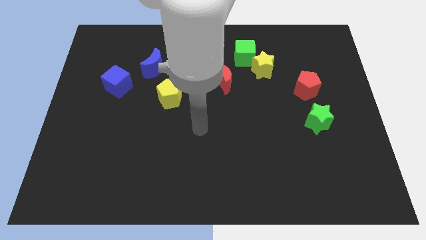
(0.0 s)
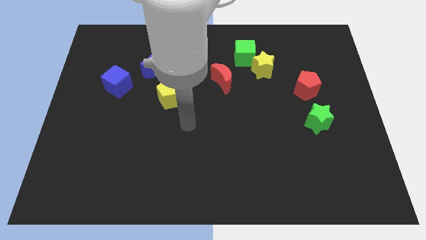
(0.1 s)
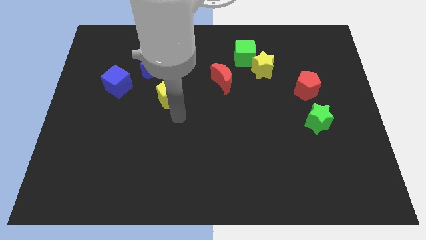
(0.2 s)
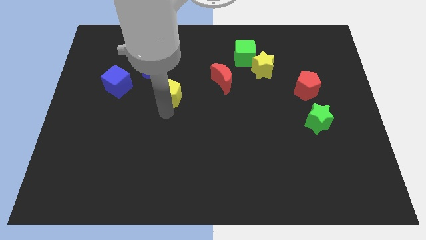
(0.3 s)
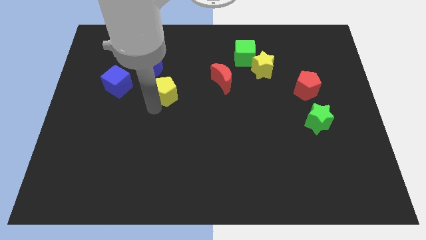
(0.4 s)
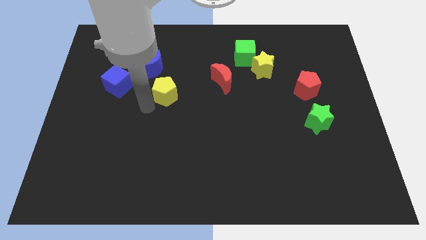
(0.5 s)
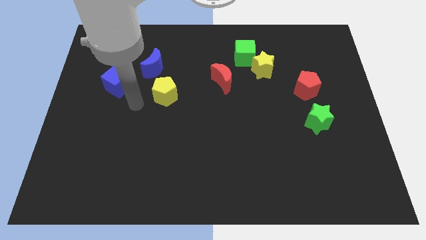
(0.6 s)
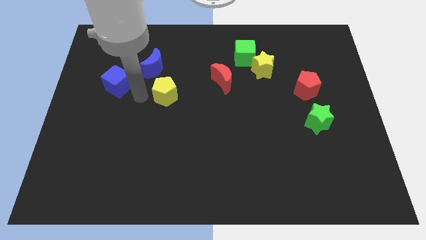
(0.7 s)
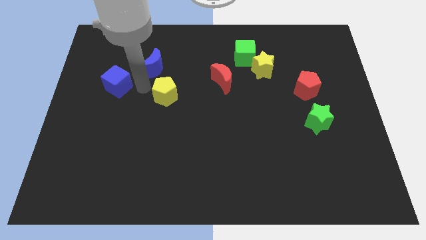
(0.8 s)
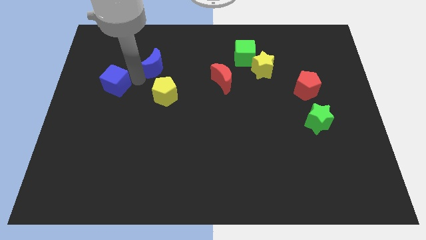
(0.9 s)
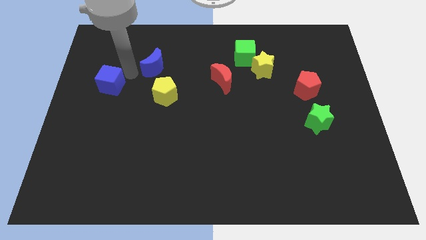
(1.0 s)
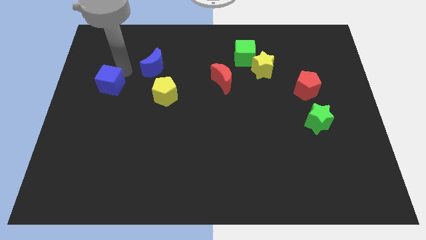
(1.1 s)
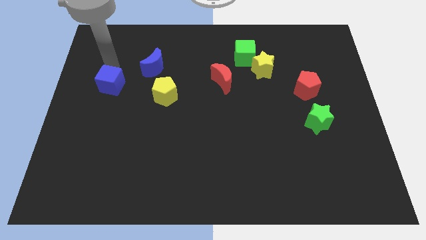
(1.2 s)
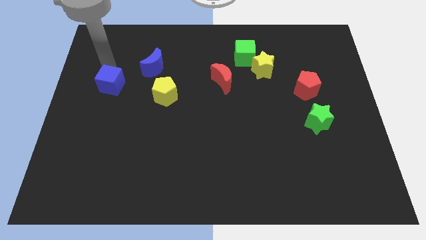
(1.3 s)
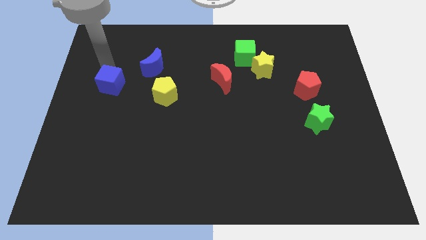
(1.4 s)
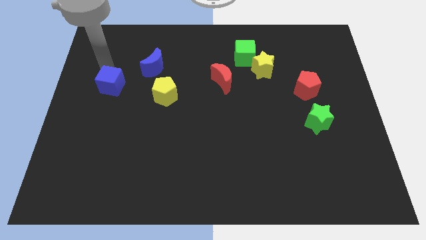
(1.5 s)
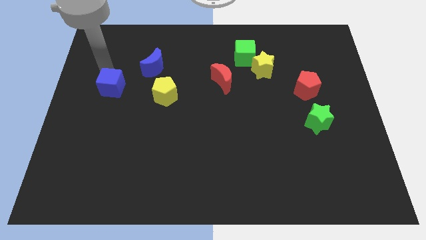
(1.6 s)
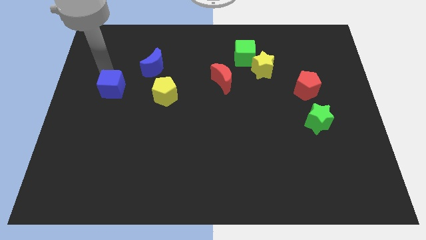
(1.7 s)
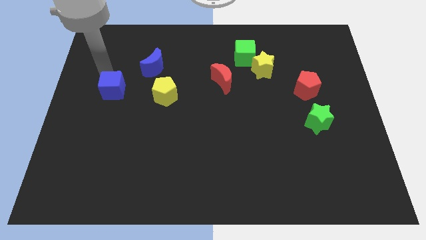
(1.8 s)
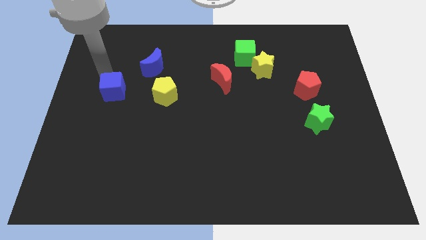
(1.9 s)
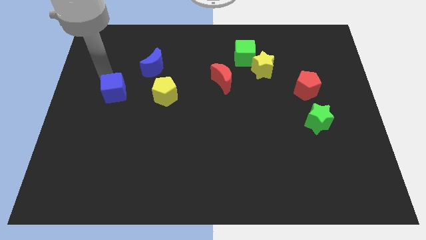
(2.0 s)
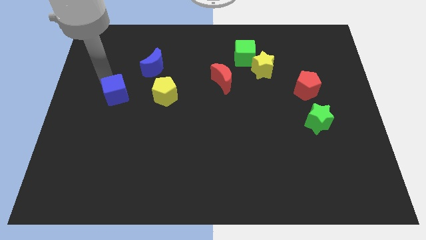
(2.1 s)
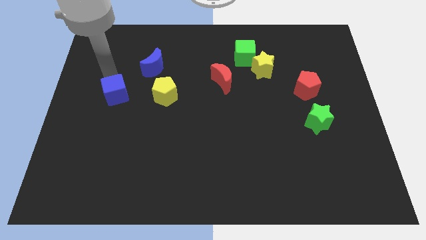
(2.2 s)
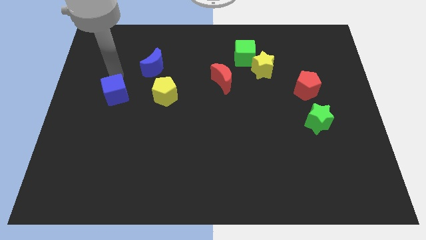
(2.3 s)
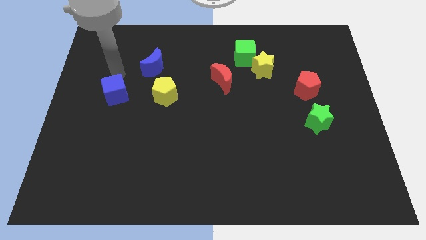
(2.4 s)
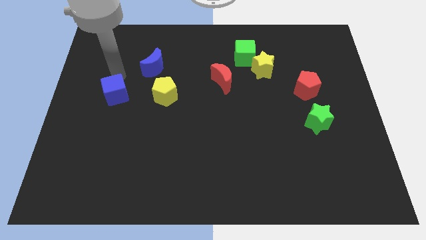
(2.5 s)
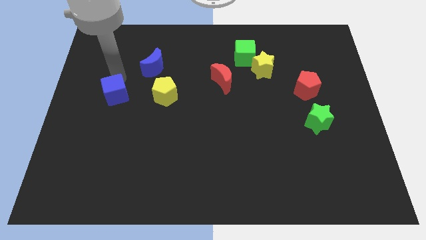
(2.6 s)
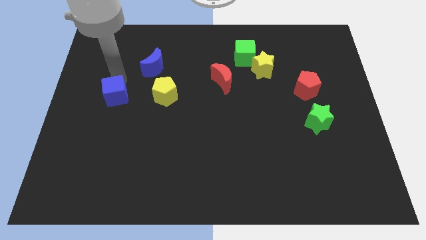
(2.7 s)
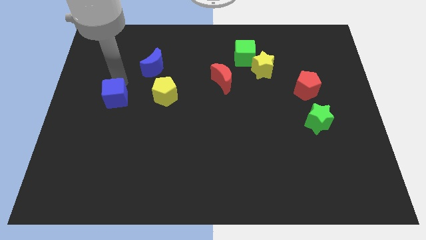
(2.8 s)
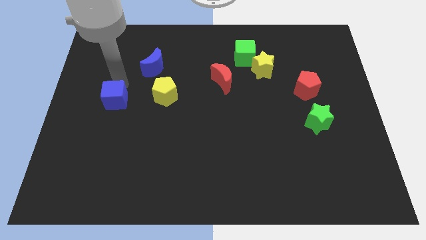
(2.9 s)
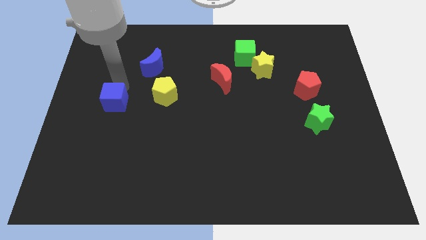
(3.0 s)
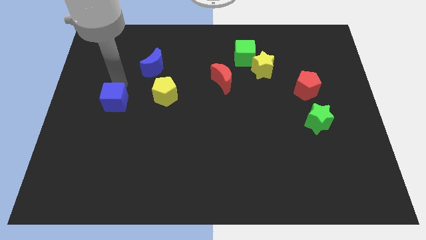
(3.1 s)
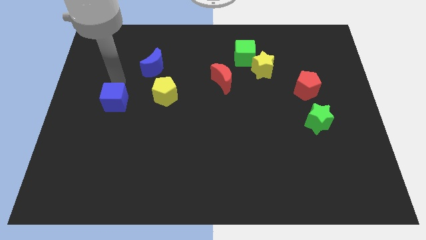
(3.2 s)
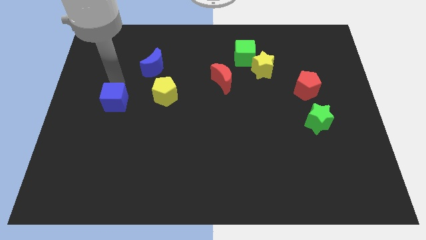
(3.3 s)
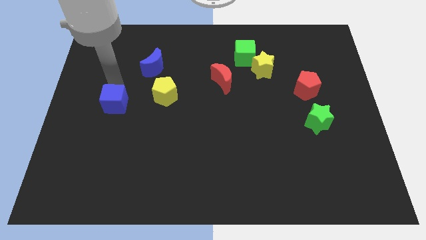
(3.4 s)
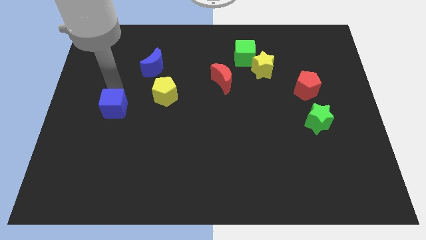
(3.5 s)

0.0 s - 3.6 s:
move the blue cube down somewhat

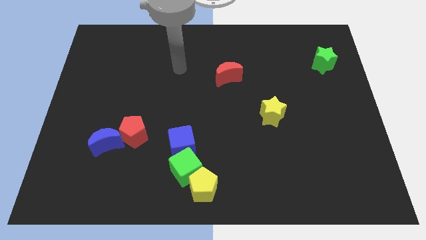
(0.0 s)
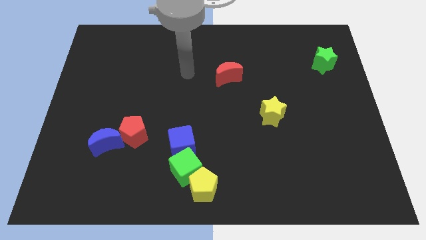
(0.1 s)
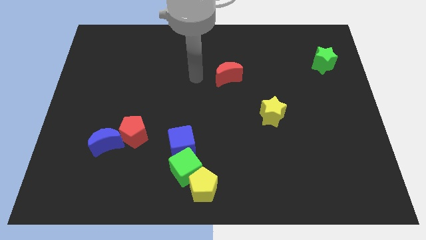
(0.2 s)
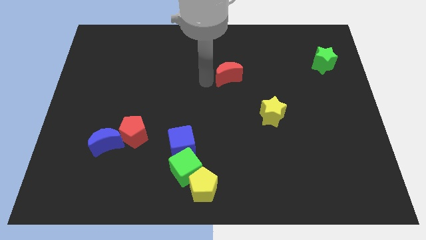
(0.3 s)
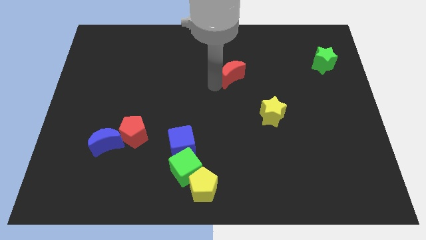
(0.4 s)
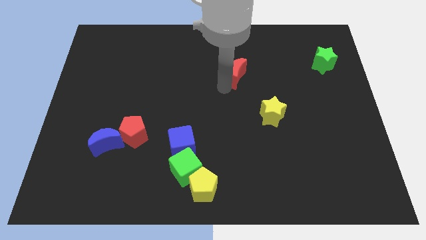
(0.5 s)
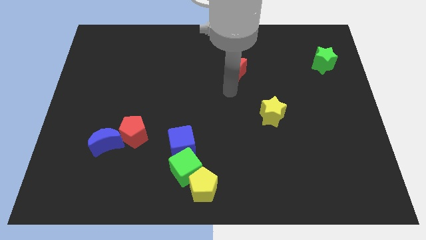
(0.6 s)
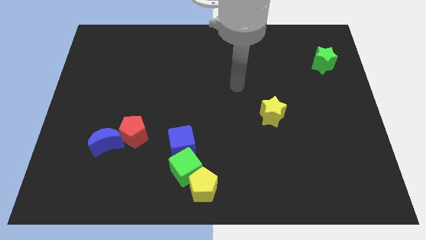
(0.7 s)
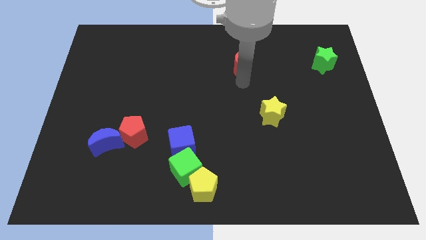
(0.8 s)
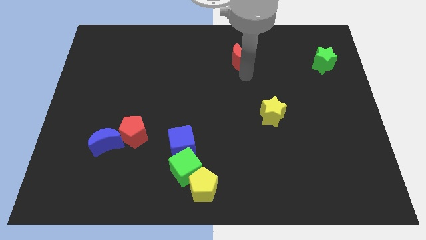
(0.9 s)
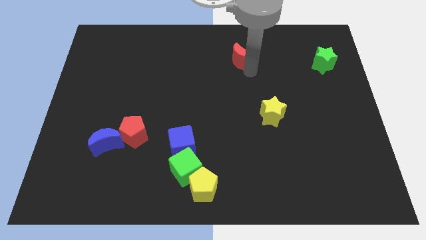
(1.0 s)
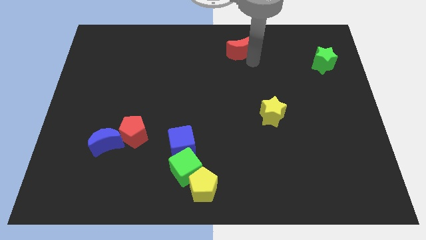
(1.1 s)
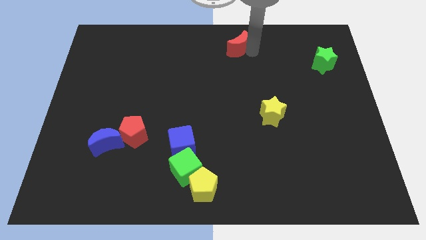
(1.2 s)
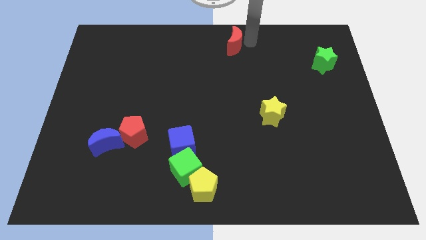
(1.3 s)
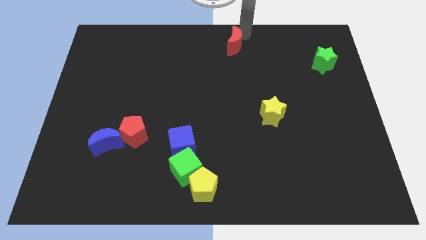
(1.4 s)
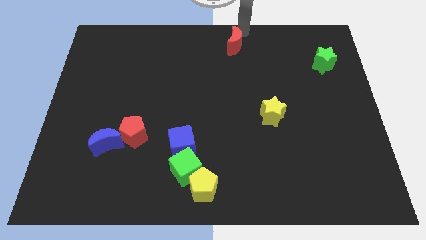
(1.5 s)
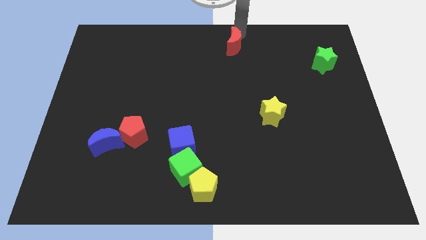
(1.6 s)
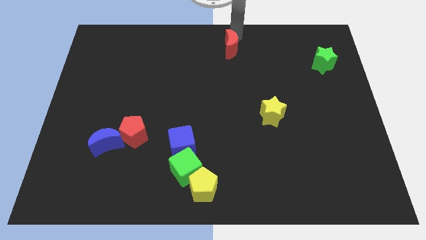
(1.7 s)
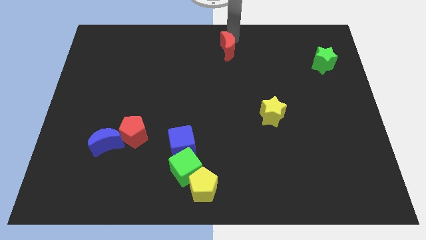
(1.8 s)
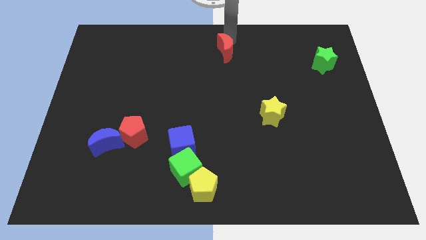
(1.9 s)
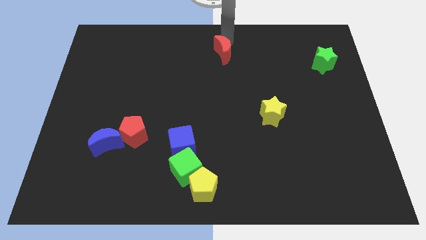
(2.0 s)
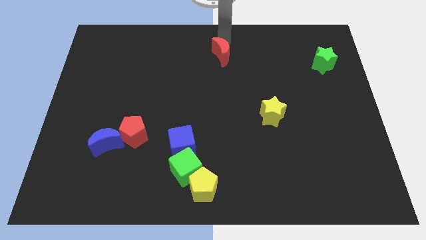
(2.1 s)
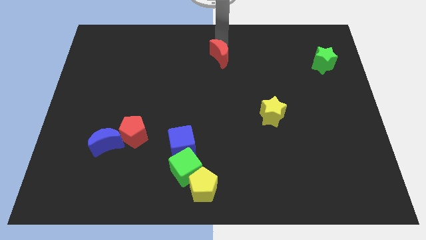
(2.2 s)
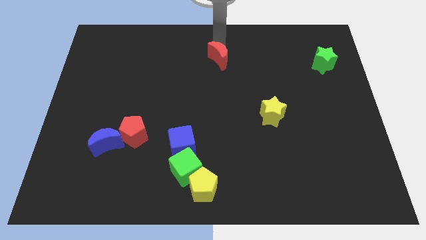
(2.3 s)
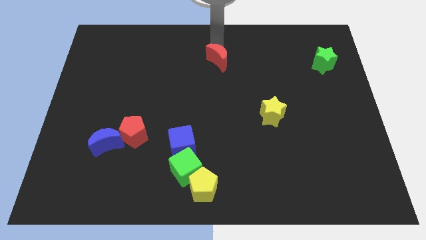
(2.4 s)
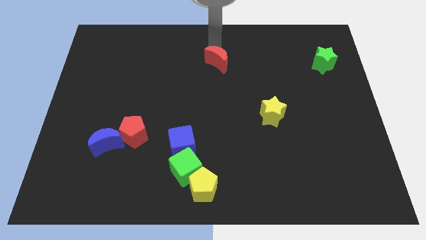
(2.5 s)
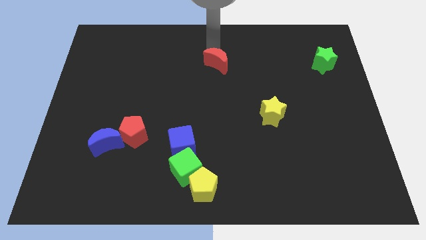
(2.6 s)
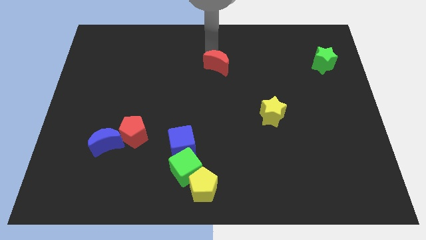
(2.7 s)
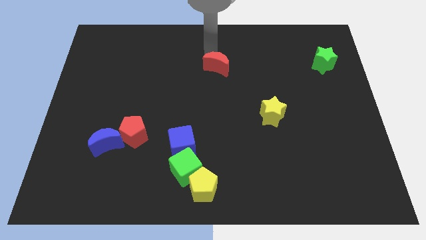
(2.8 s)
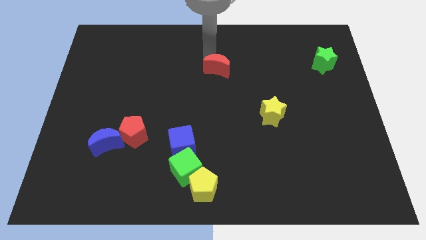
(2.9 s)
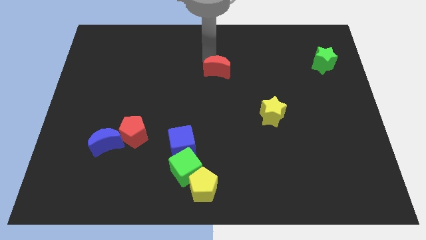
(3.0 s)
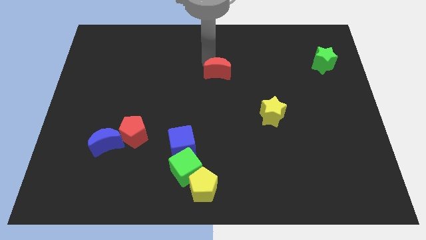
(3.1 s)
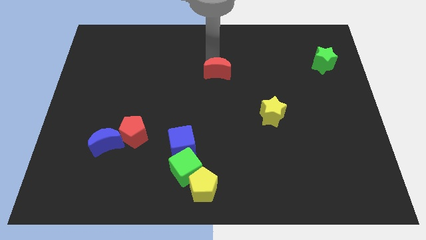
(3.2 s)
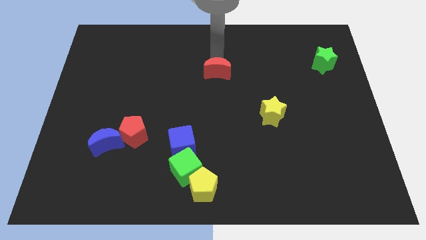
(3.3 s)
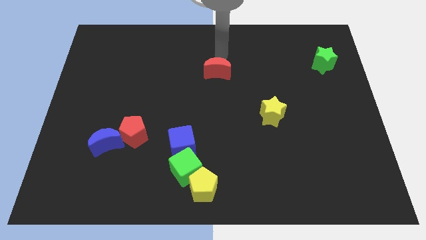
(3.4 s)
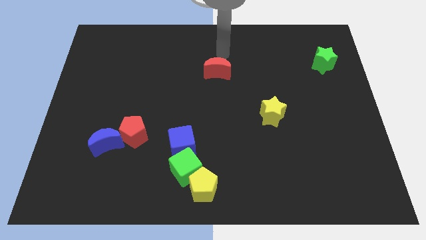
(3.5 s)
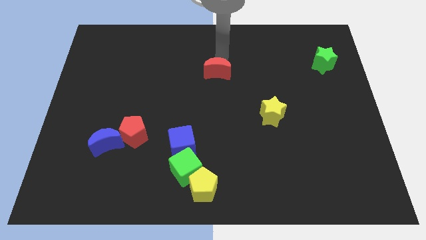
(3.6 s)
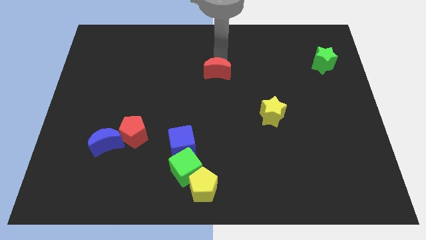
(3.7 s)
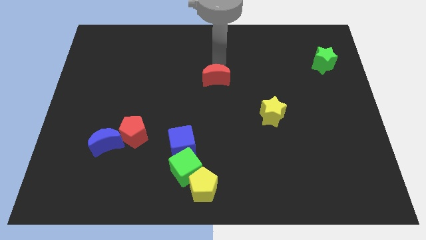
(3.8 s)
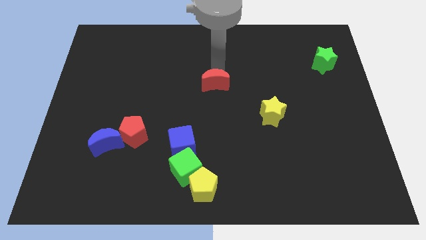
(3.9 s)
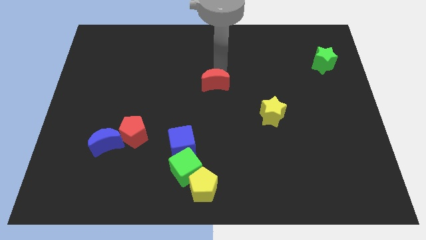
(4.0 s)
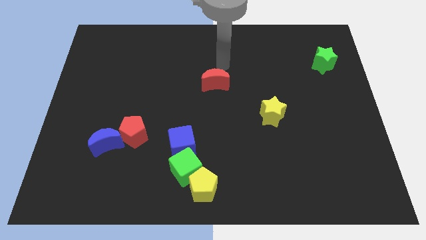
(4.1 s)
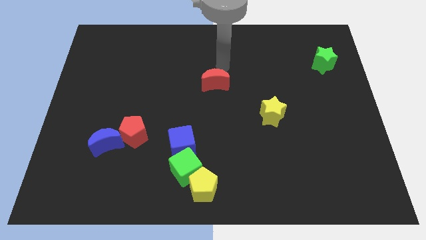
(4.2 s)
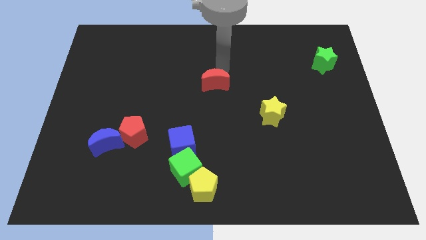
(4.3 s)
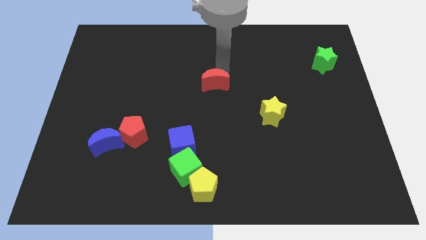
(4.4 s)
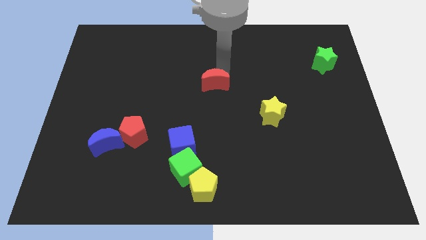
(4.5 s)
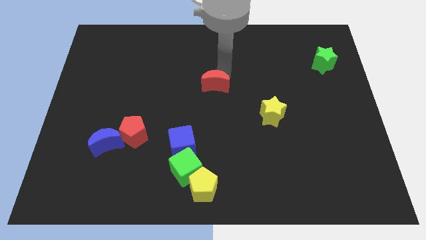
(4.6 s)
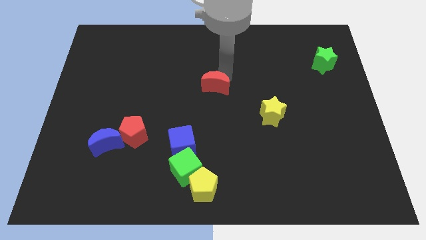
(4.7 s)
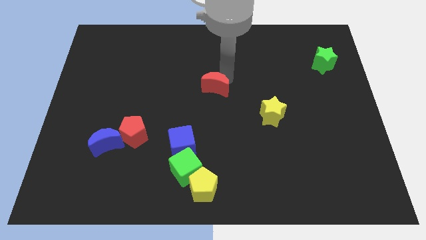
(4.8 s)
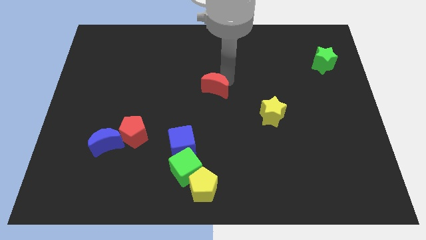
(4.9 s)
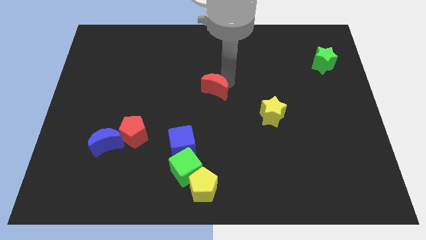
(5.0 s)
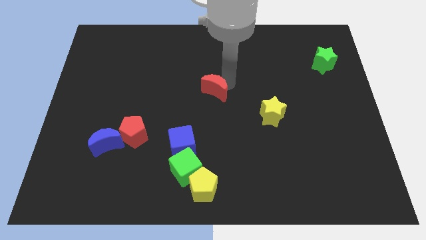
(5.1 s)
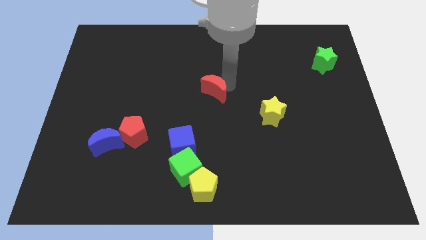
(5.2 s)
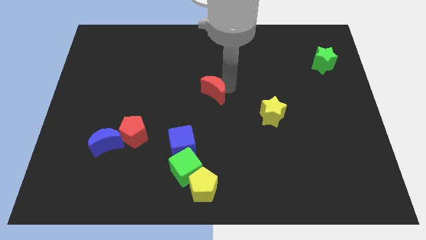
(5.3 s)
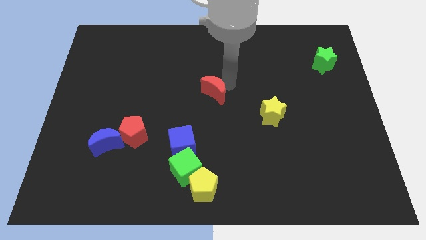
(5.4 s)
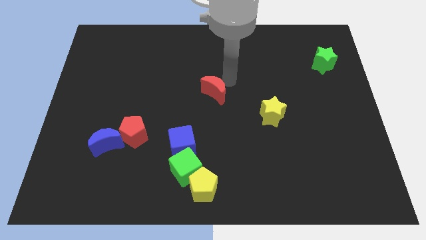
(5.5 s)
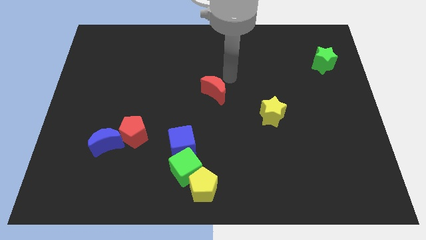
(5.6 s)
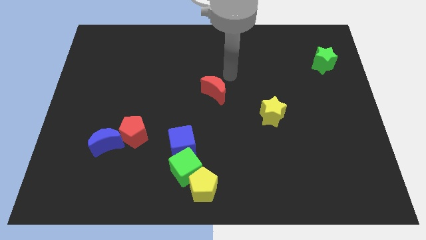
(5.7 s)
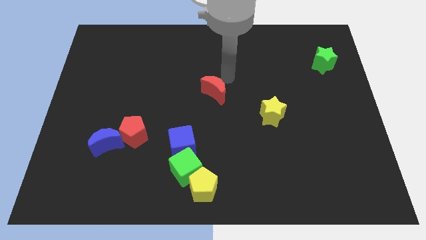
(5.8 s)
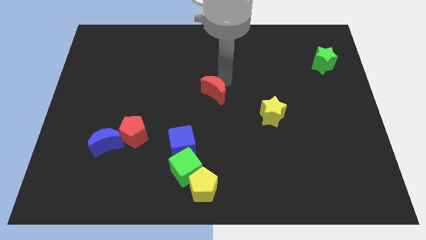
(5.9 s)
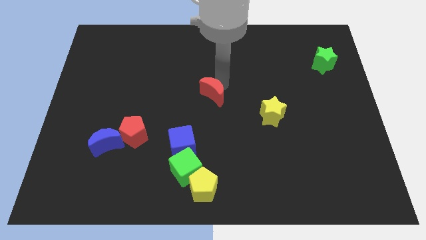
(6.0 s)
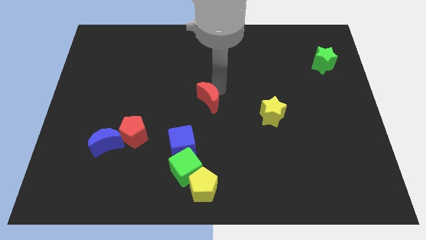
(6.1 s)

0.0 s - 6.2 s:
move the red moon somewhat downwards and left
